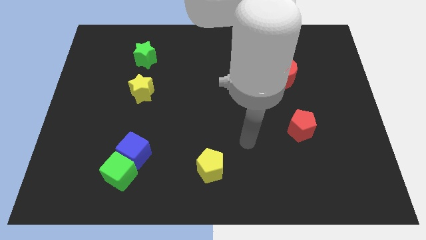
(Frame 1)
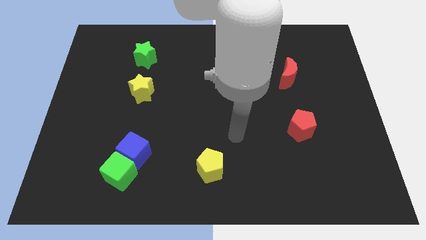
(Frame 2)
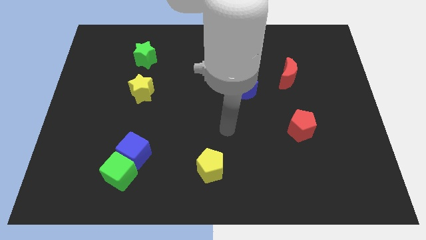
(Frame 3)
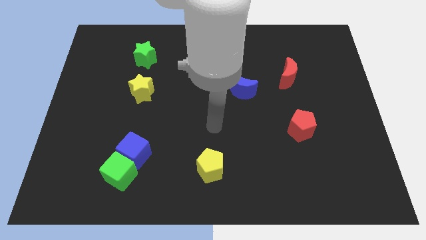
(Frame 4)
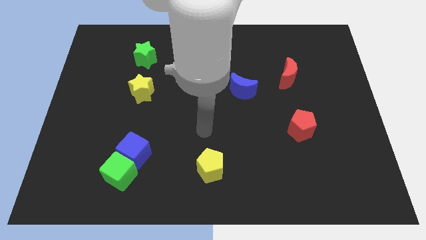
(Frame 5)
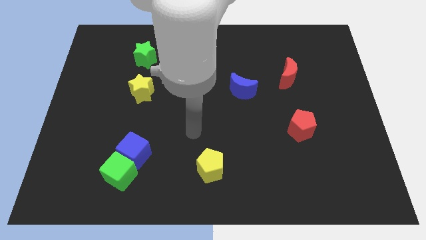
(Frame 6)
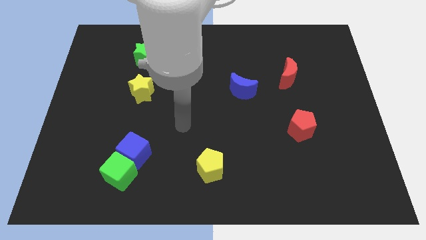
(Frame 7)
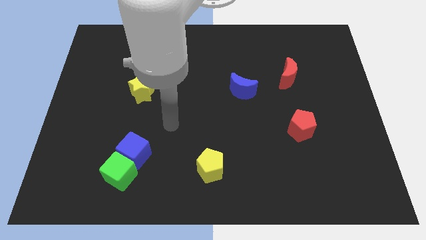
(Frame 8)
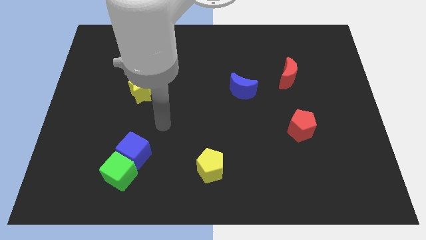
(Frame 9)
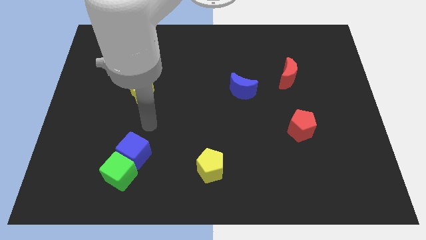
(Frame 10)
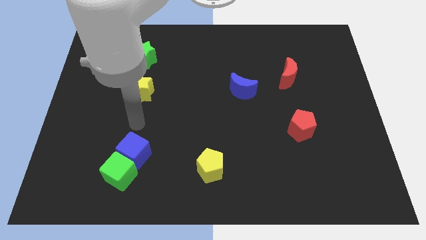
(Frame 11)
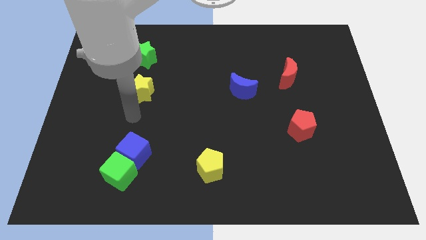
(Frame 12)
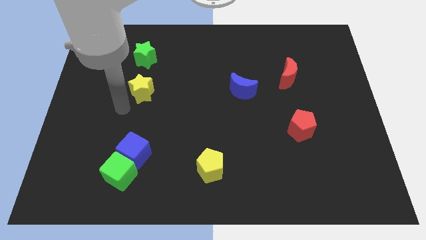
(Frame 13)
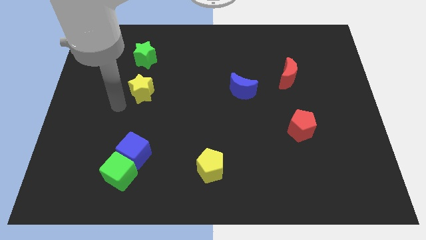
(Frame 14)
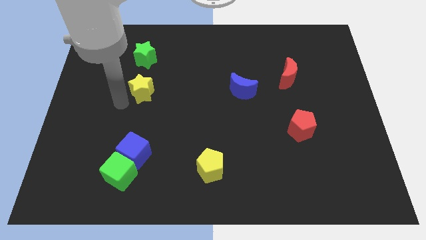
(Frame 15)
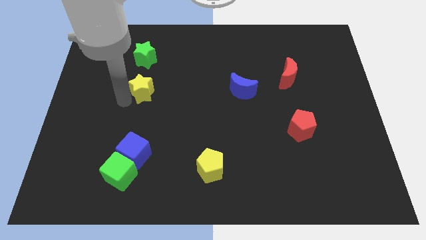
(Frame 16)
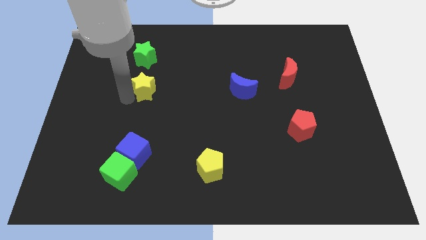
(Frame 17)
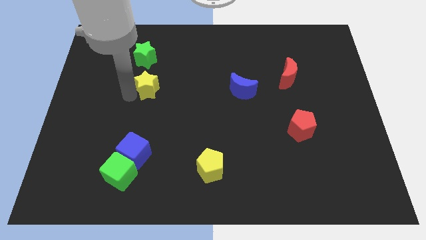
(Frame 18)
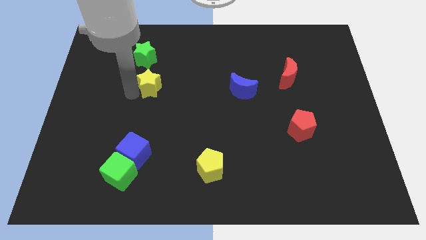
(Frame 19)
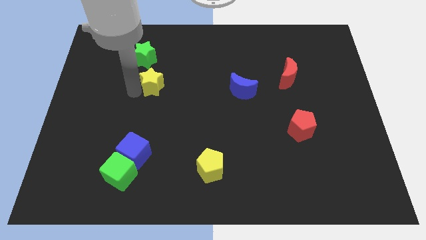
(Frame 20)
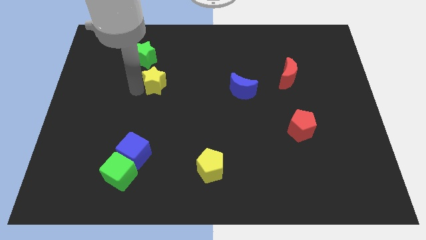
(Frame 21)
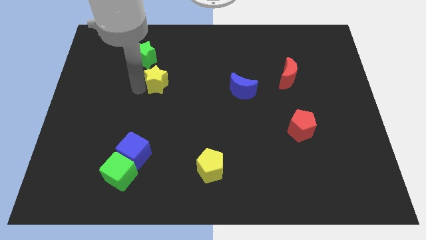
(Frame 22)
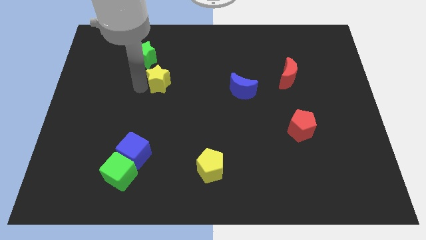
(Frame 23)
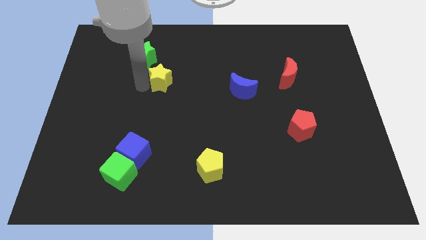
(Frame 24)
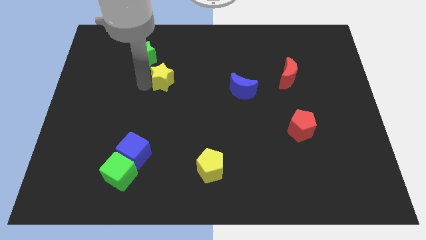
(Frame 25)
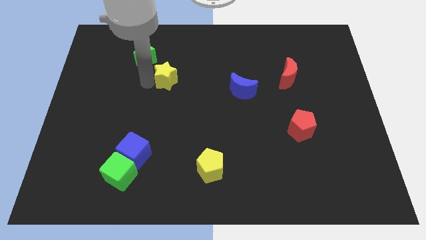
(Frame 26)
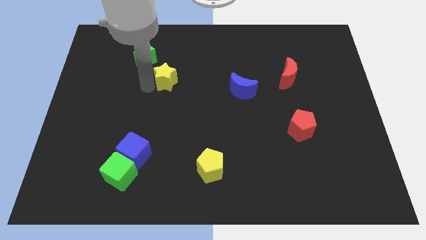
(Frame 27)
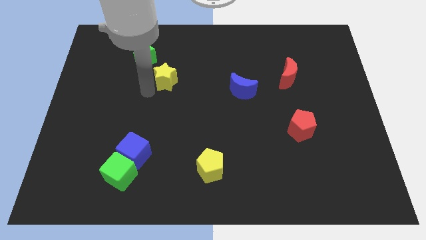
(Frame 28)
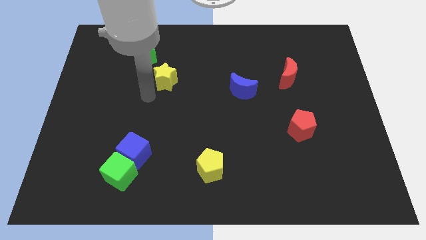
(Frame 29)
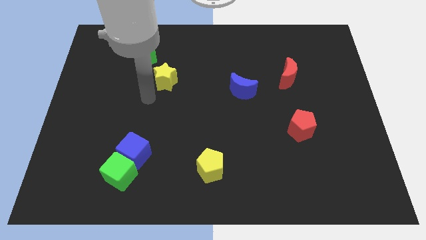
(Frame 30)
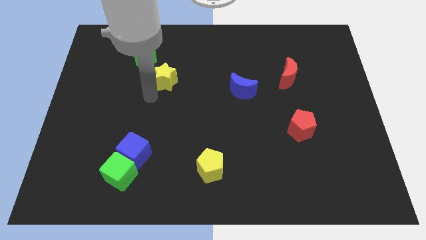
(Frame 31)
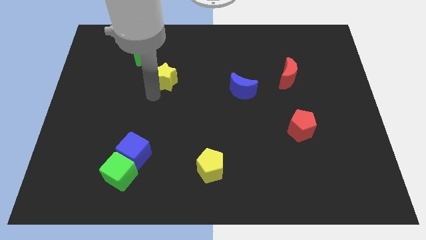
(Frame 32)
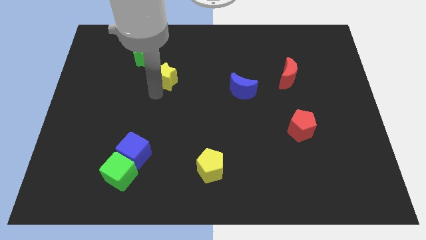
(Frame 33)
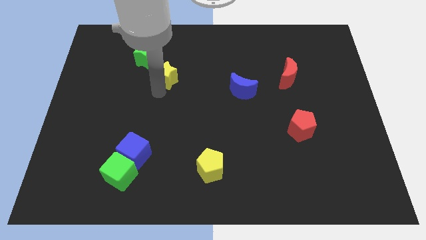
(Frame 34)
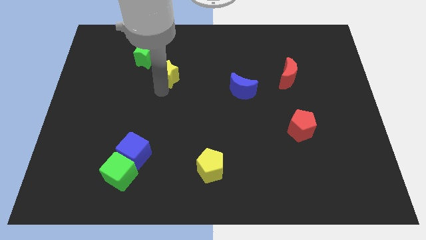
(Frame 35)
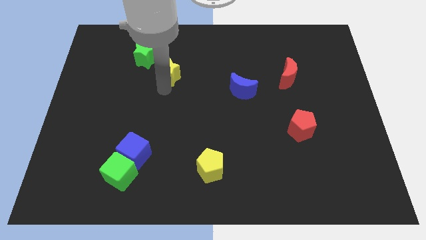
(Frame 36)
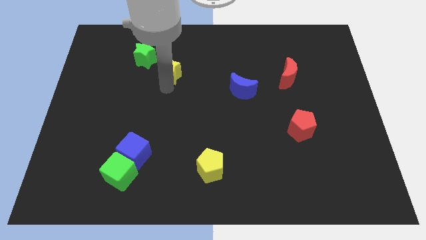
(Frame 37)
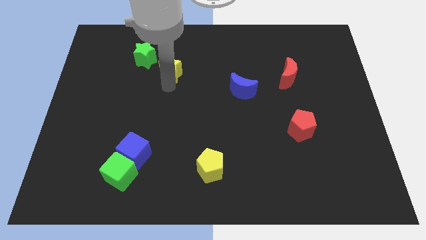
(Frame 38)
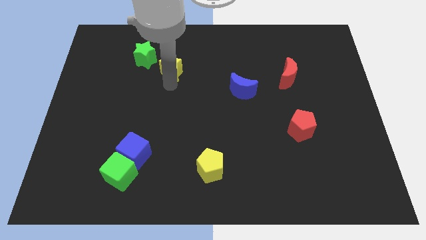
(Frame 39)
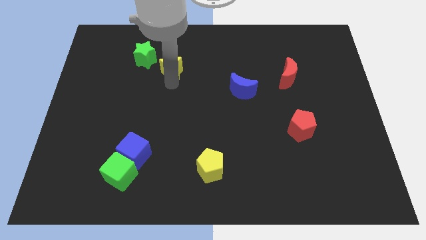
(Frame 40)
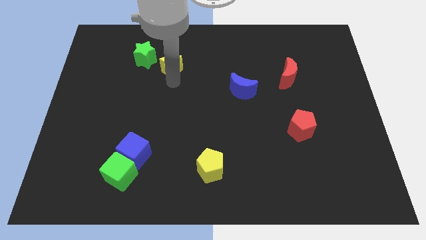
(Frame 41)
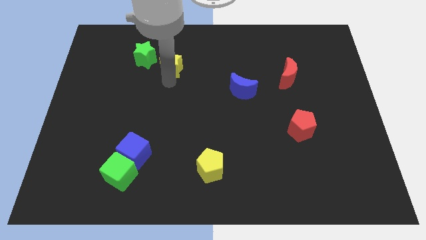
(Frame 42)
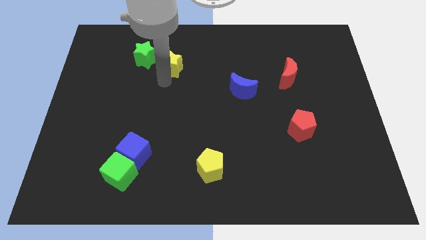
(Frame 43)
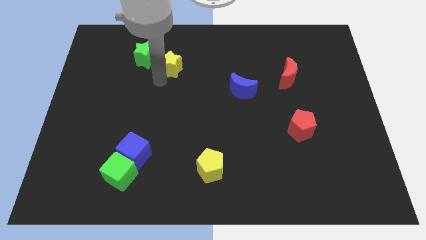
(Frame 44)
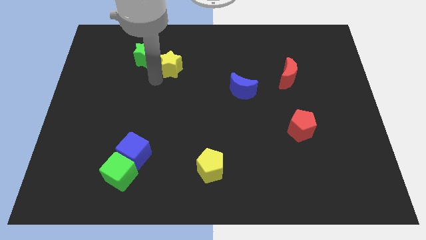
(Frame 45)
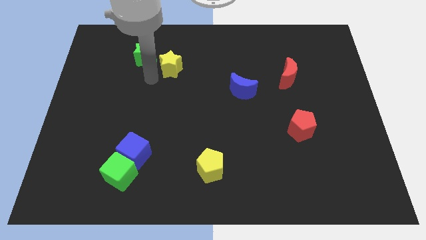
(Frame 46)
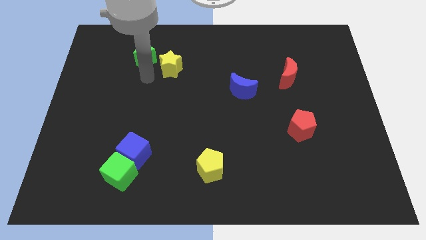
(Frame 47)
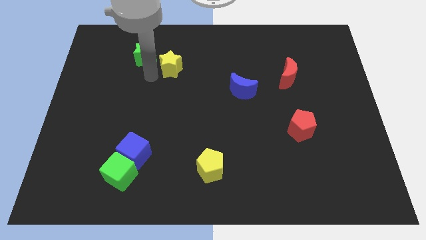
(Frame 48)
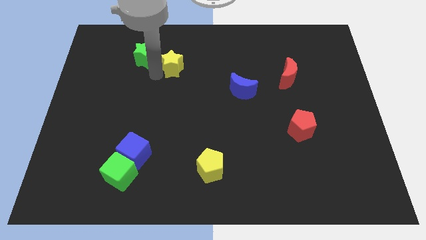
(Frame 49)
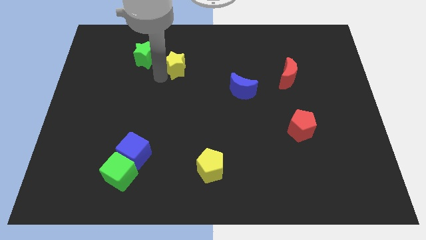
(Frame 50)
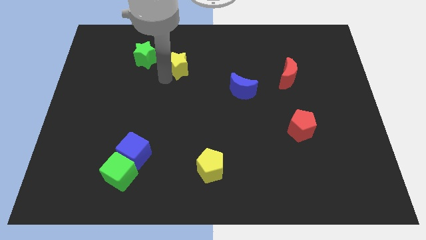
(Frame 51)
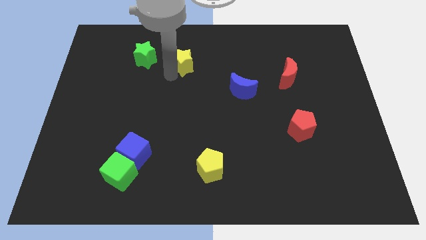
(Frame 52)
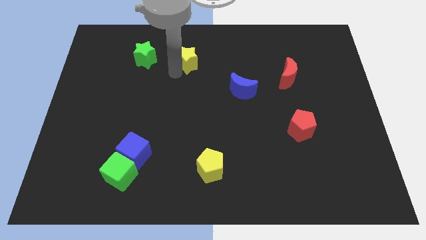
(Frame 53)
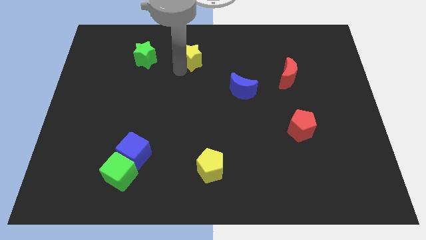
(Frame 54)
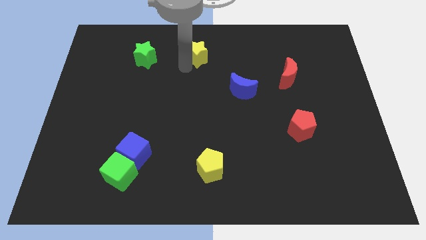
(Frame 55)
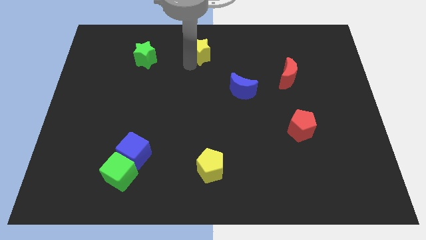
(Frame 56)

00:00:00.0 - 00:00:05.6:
put the yellow star to the towards your base
